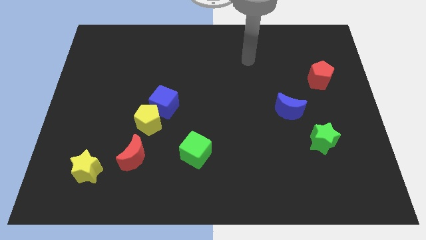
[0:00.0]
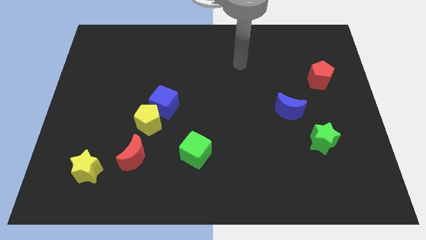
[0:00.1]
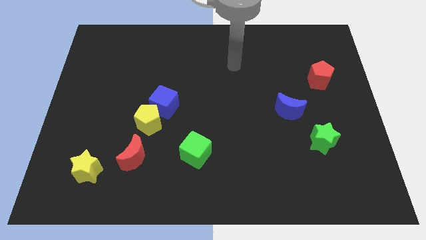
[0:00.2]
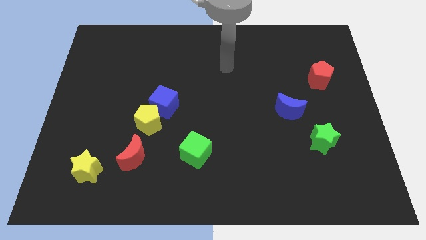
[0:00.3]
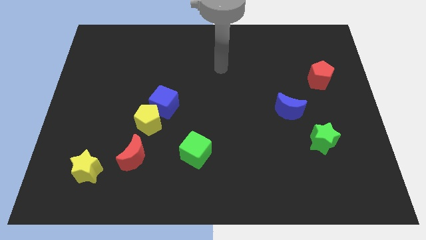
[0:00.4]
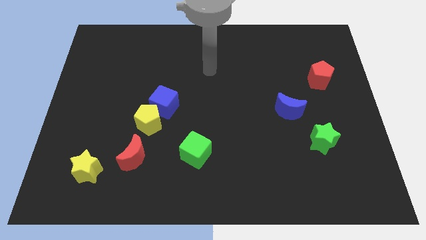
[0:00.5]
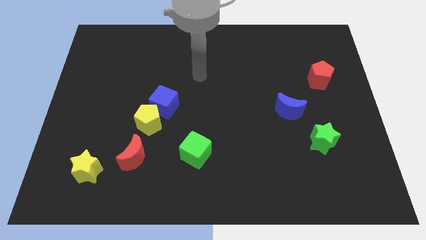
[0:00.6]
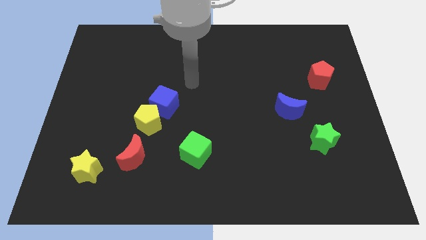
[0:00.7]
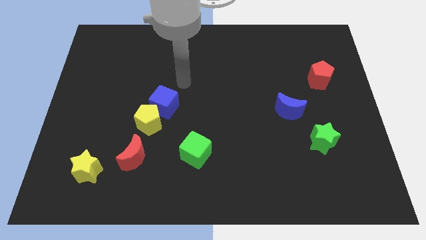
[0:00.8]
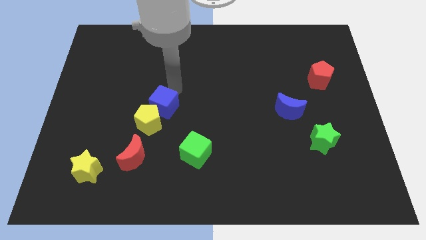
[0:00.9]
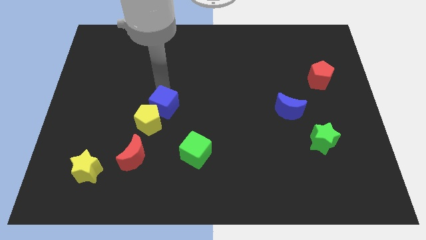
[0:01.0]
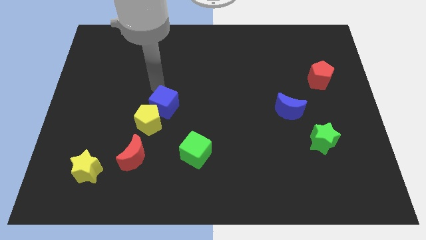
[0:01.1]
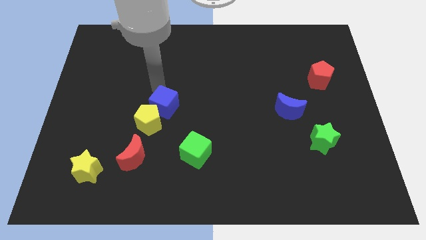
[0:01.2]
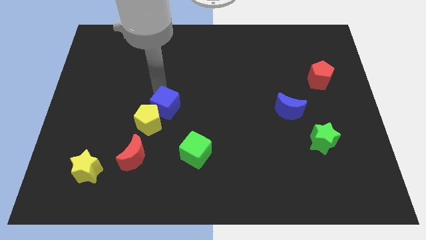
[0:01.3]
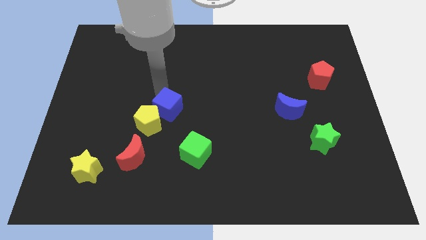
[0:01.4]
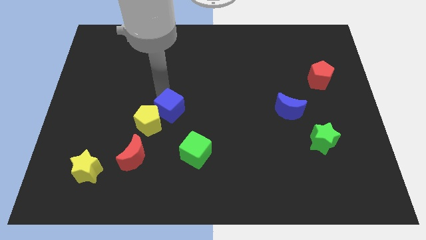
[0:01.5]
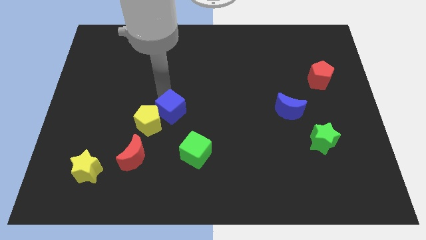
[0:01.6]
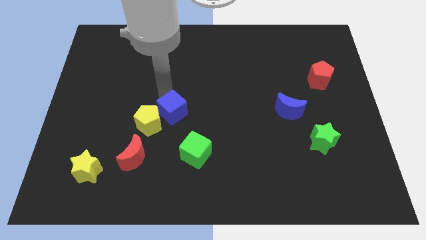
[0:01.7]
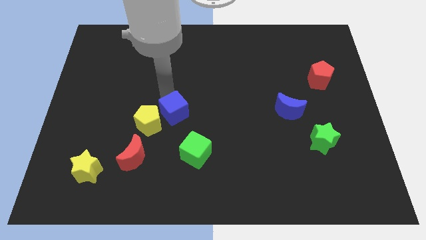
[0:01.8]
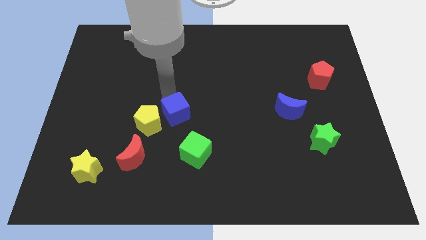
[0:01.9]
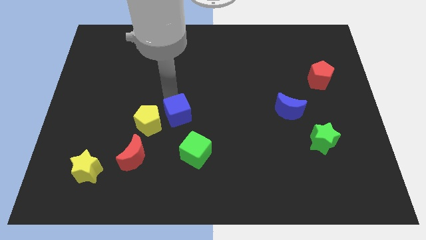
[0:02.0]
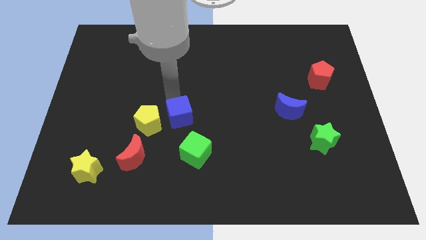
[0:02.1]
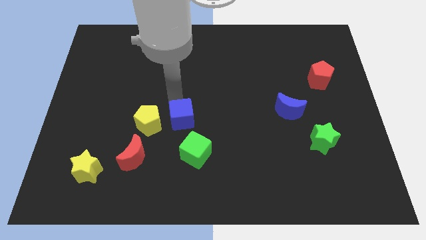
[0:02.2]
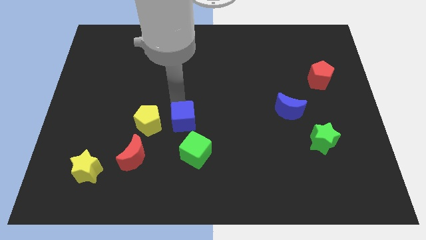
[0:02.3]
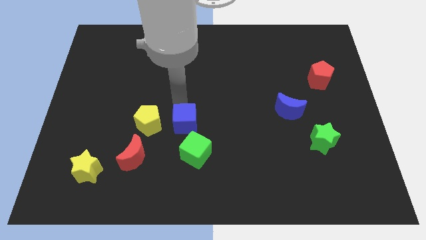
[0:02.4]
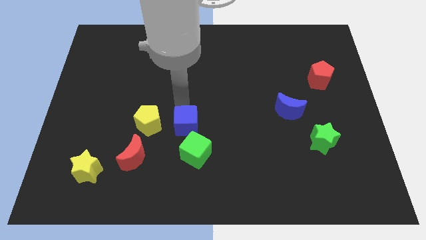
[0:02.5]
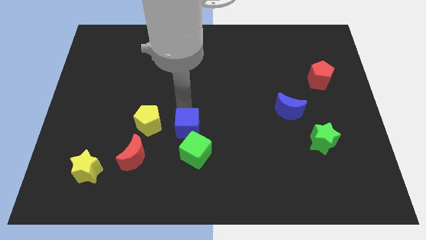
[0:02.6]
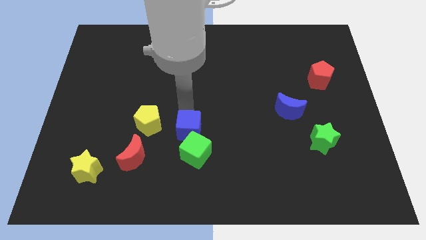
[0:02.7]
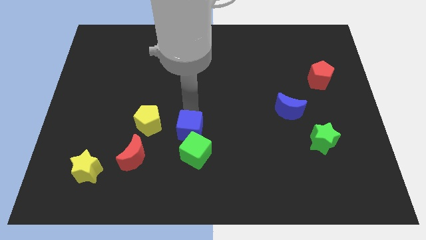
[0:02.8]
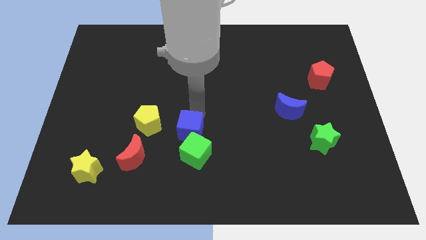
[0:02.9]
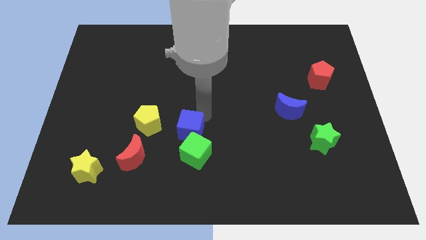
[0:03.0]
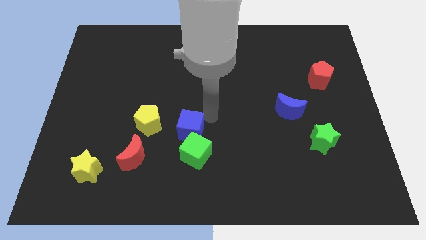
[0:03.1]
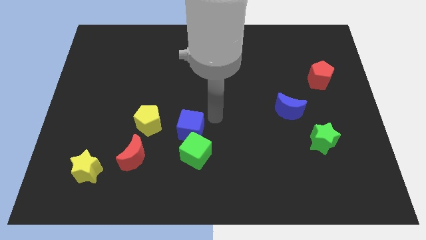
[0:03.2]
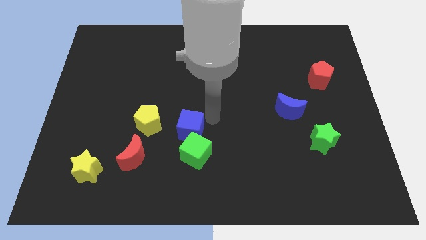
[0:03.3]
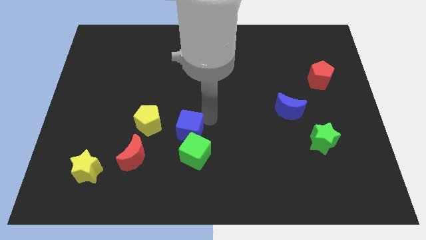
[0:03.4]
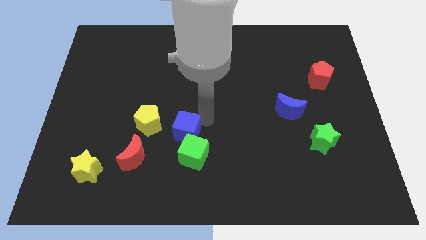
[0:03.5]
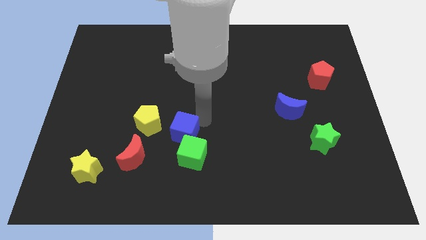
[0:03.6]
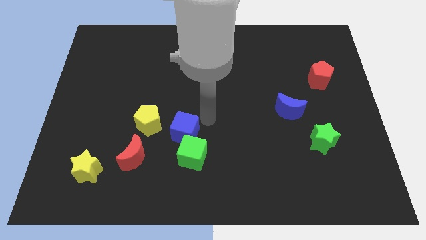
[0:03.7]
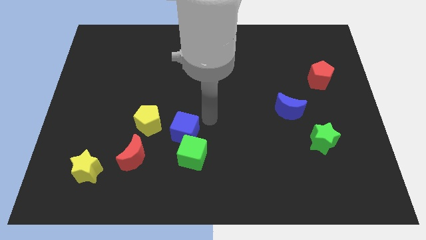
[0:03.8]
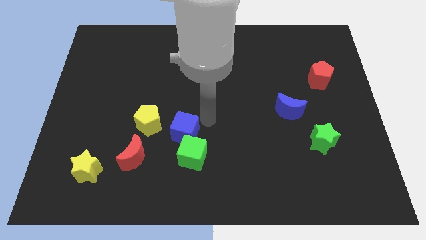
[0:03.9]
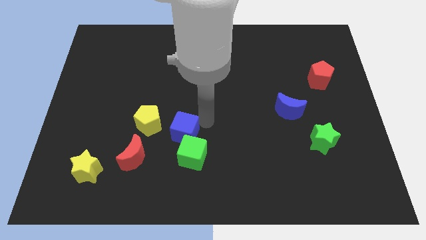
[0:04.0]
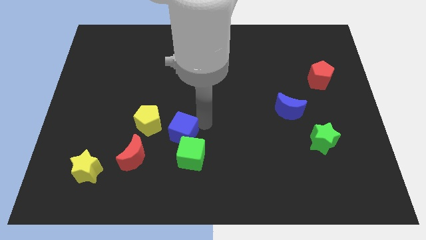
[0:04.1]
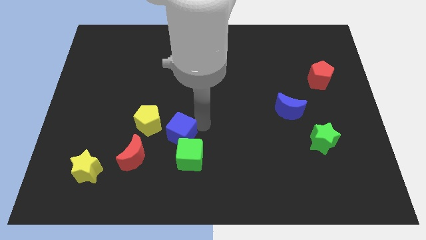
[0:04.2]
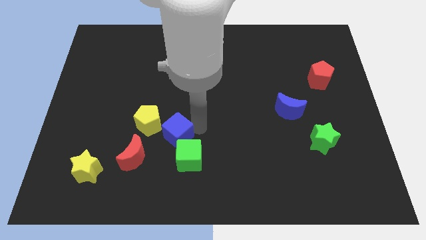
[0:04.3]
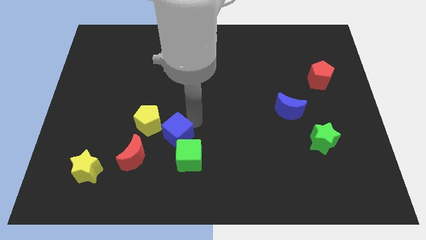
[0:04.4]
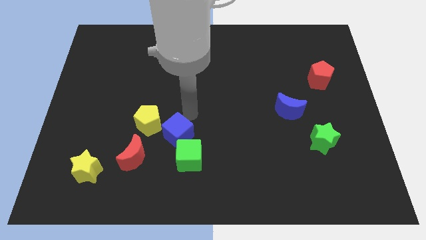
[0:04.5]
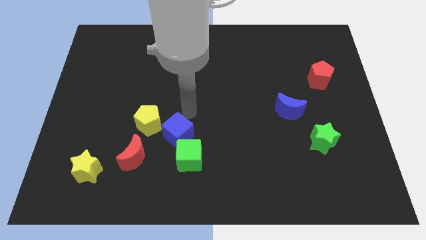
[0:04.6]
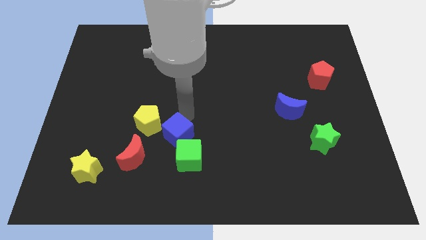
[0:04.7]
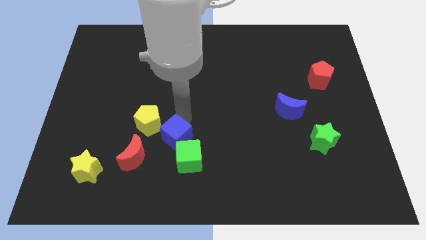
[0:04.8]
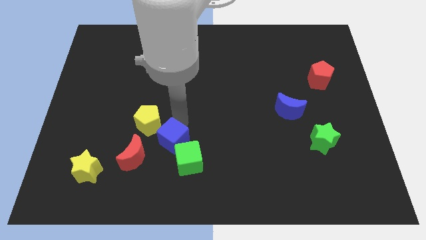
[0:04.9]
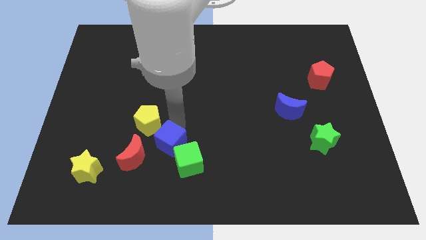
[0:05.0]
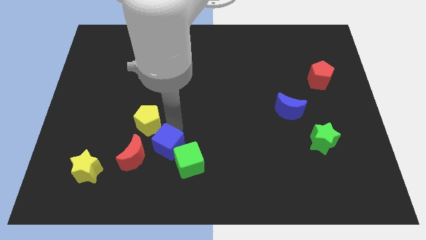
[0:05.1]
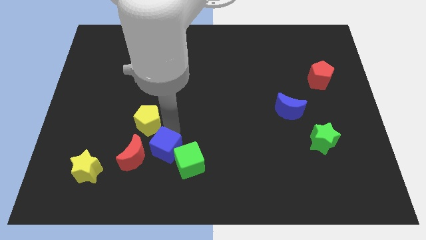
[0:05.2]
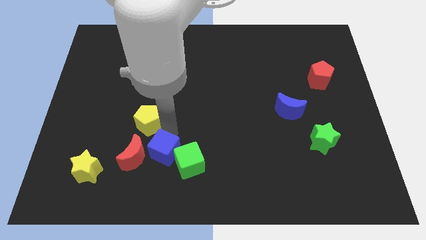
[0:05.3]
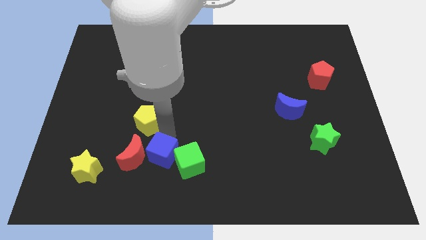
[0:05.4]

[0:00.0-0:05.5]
push the blue cube to the bottom right side of the red moon

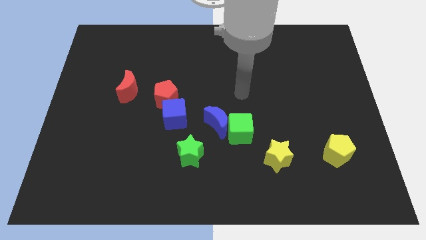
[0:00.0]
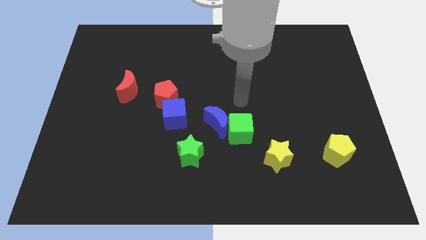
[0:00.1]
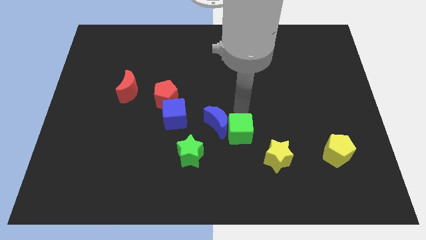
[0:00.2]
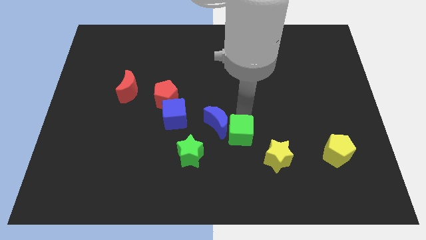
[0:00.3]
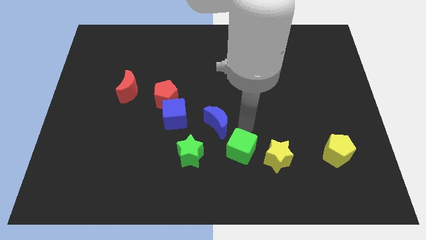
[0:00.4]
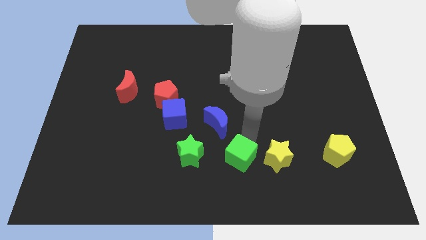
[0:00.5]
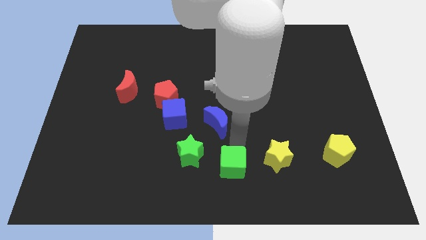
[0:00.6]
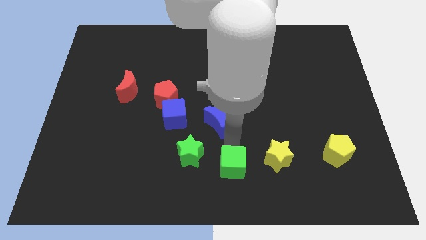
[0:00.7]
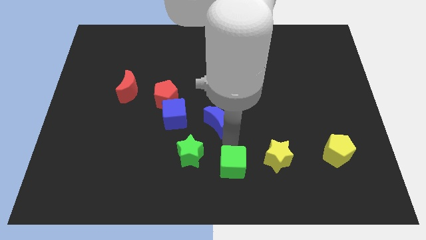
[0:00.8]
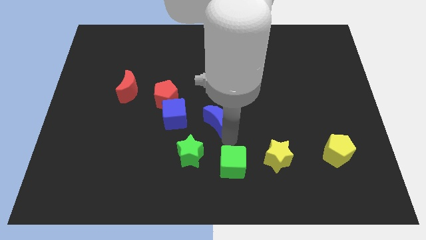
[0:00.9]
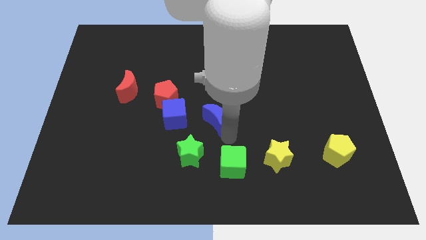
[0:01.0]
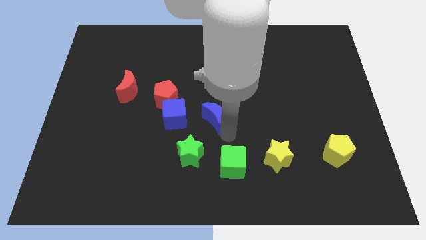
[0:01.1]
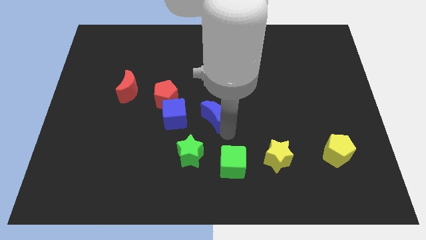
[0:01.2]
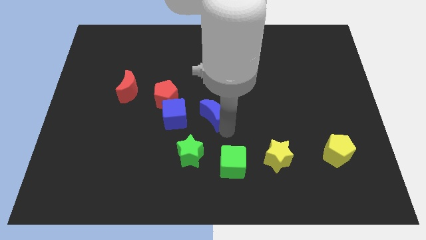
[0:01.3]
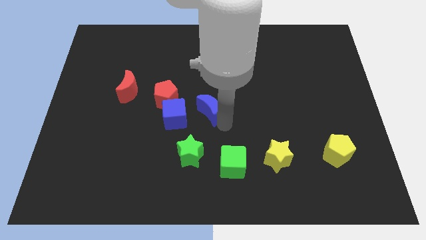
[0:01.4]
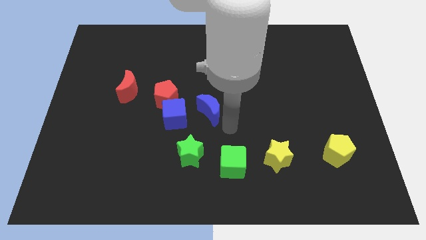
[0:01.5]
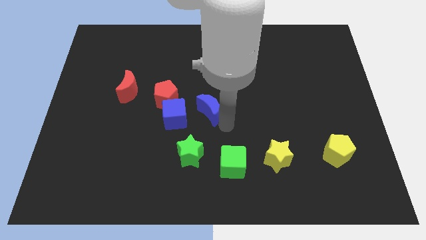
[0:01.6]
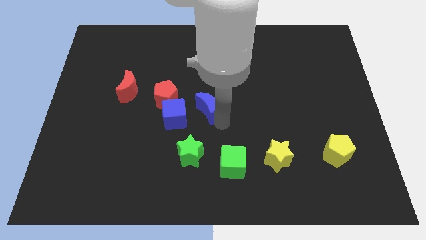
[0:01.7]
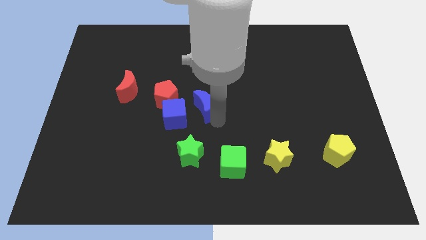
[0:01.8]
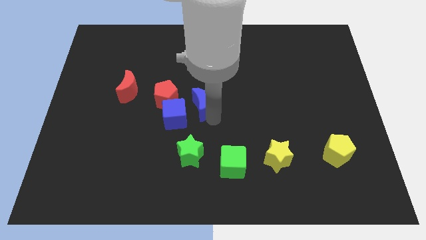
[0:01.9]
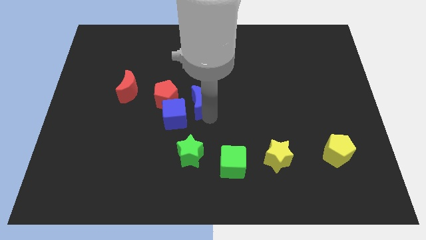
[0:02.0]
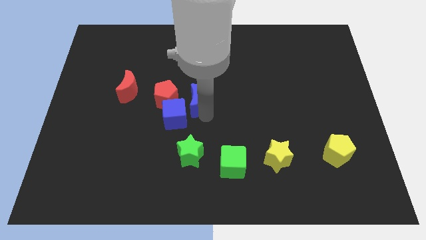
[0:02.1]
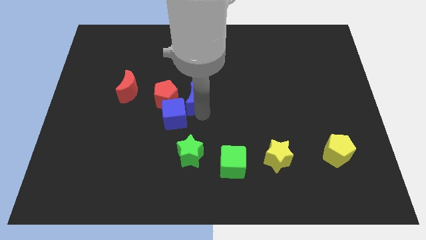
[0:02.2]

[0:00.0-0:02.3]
slide the blue moon to the top side of the blue cube
